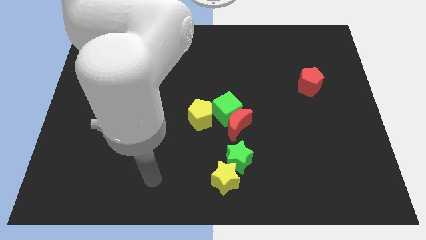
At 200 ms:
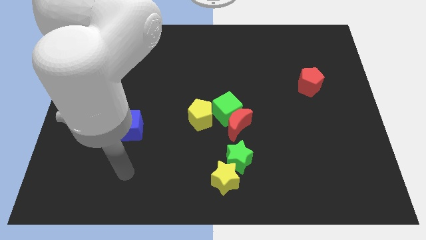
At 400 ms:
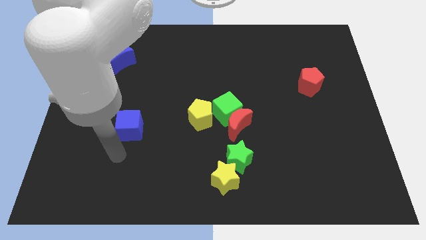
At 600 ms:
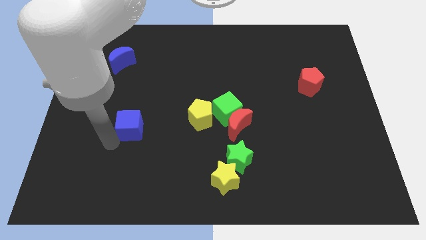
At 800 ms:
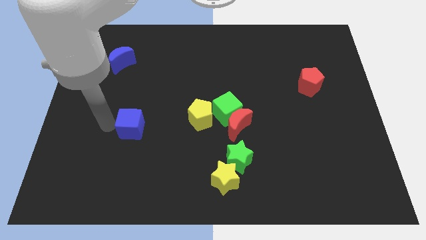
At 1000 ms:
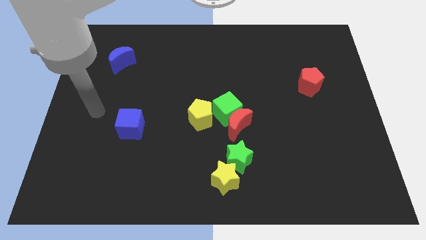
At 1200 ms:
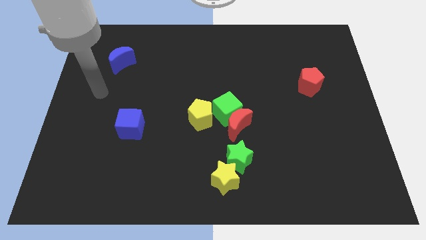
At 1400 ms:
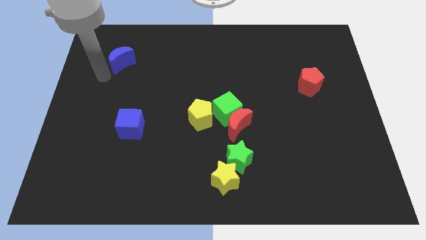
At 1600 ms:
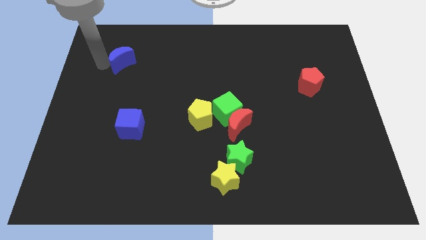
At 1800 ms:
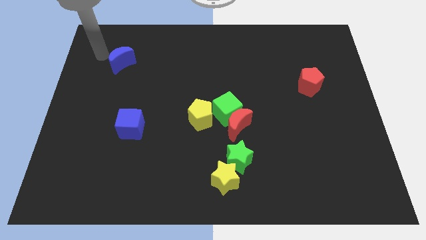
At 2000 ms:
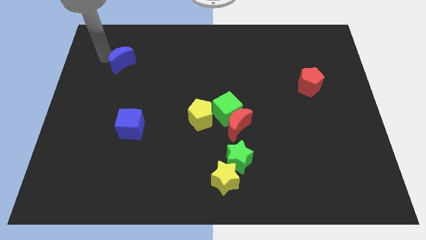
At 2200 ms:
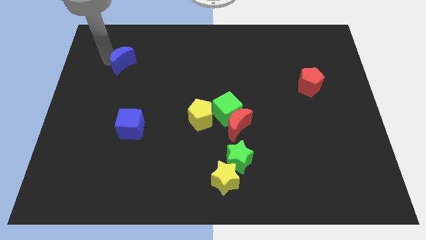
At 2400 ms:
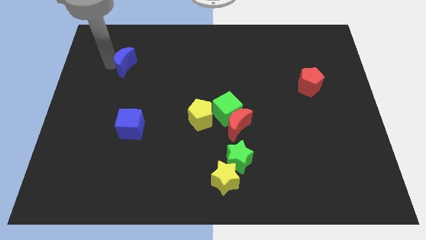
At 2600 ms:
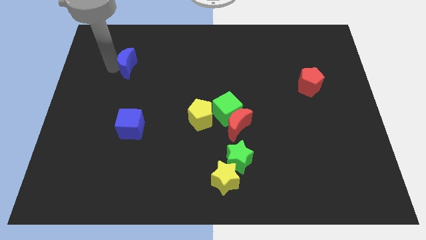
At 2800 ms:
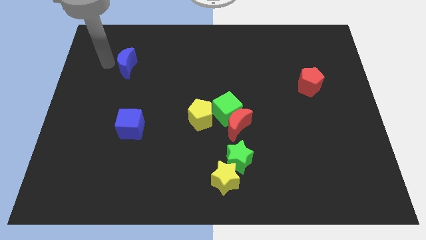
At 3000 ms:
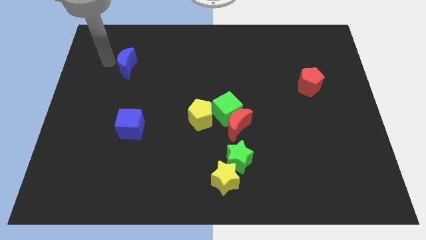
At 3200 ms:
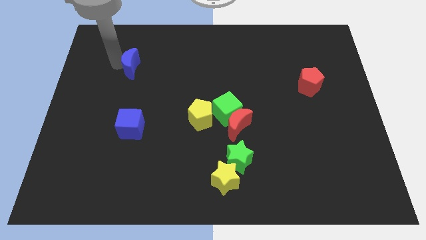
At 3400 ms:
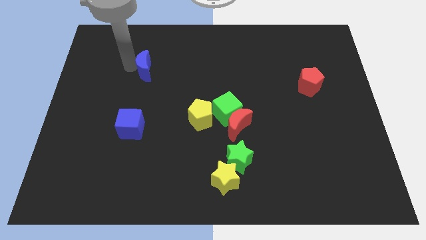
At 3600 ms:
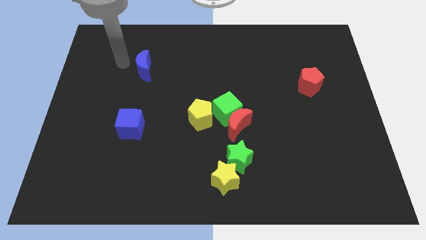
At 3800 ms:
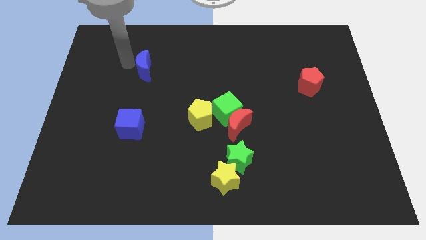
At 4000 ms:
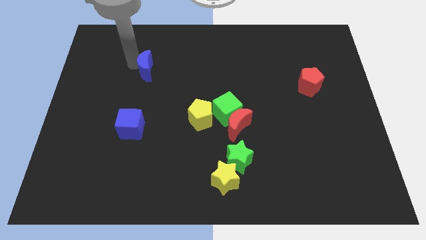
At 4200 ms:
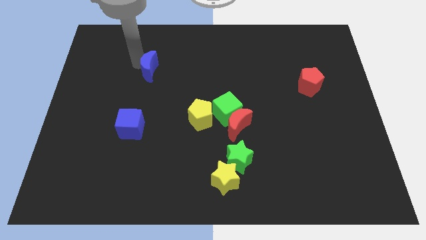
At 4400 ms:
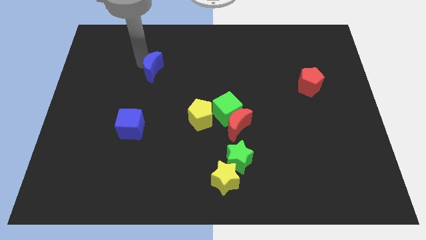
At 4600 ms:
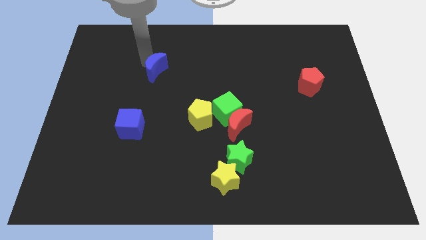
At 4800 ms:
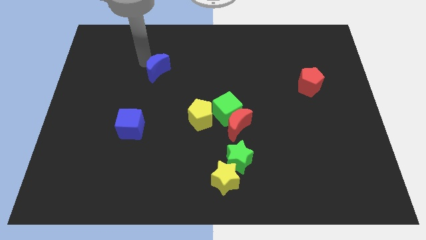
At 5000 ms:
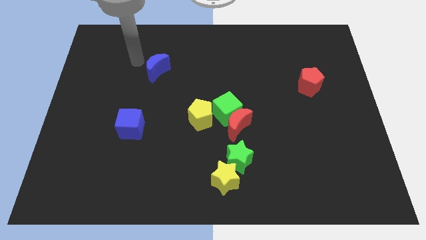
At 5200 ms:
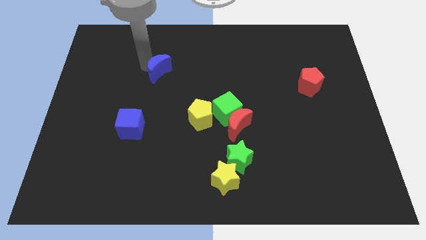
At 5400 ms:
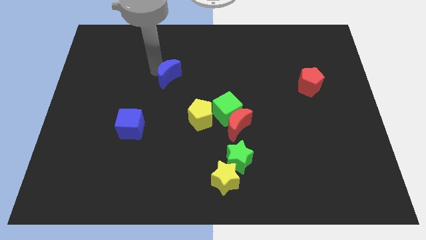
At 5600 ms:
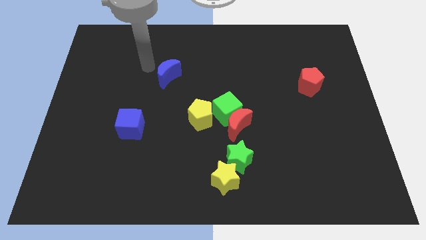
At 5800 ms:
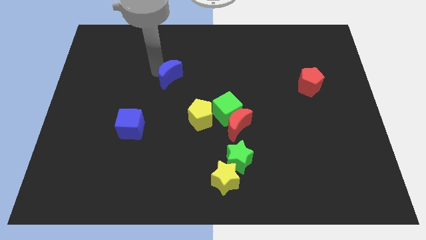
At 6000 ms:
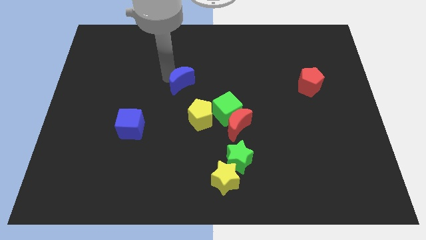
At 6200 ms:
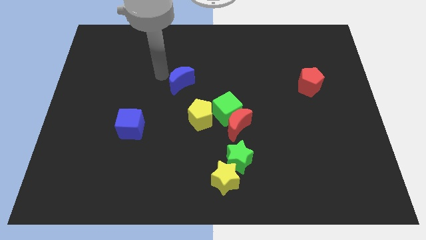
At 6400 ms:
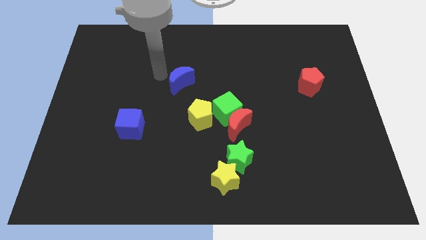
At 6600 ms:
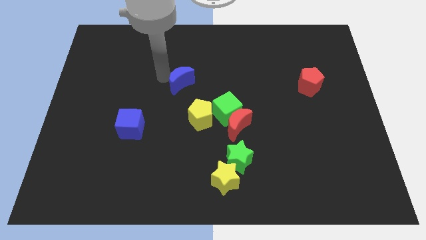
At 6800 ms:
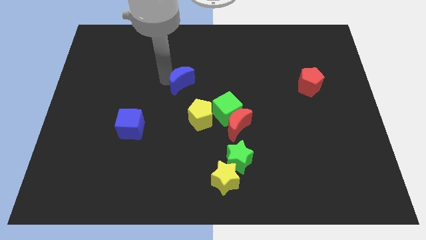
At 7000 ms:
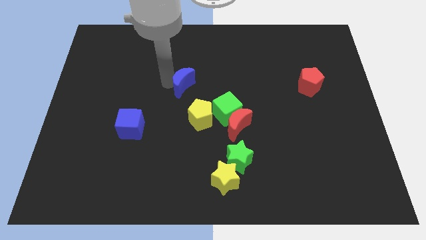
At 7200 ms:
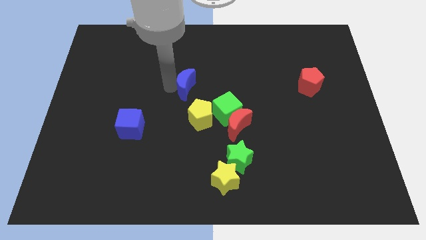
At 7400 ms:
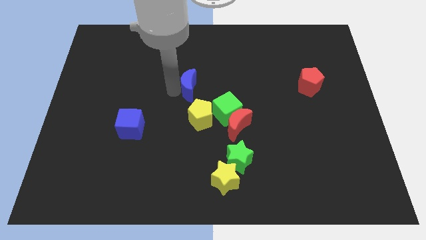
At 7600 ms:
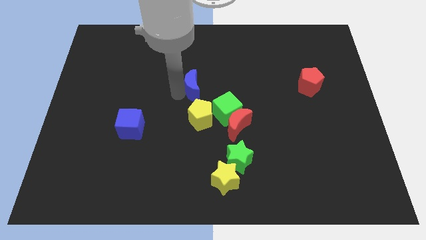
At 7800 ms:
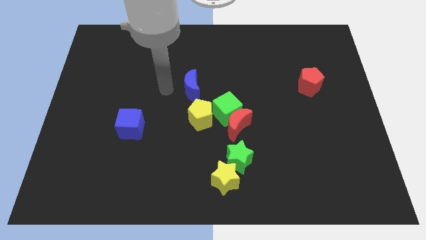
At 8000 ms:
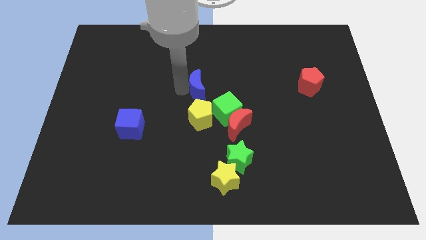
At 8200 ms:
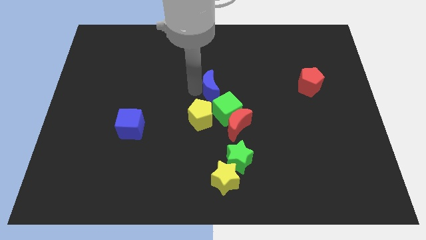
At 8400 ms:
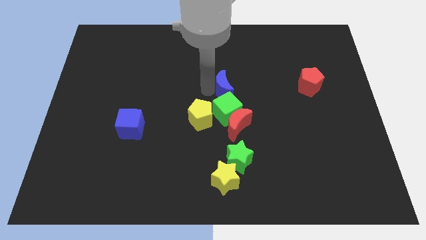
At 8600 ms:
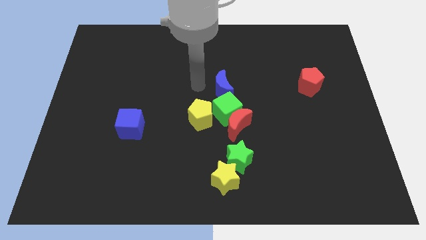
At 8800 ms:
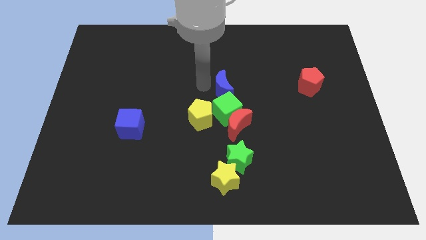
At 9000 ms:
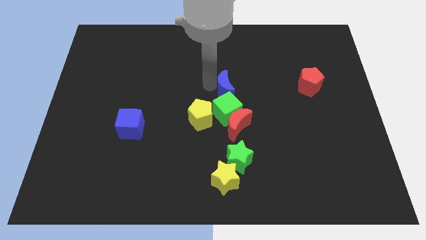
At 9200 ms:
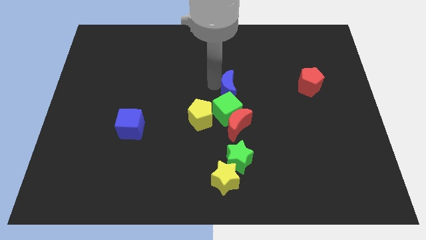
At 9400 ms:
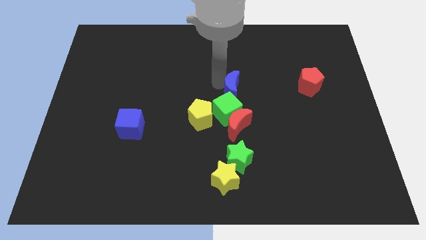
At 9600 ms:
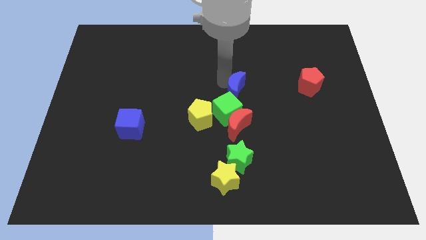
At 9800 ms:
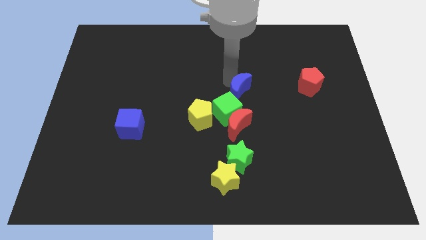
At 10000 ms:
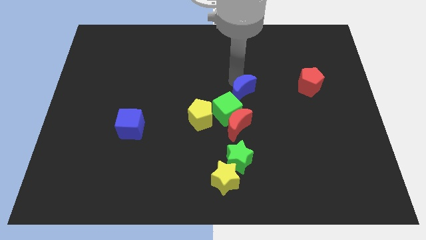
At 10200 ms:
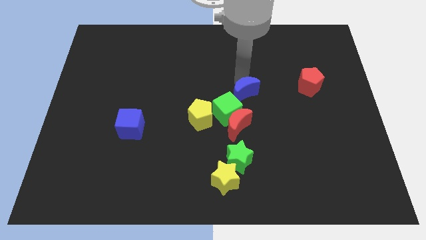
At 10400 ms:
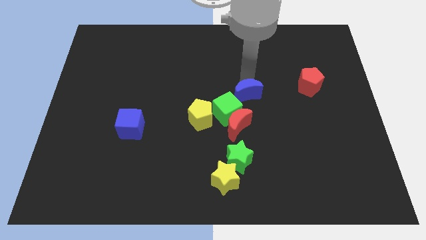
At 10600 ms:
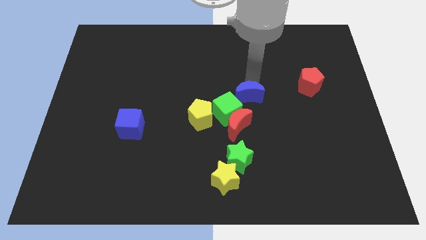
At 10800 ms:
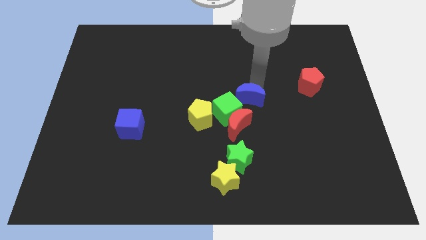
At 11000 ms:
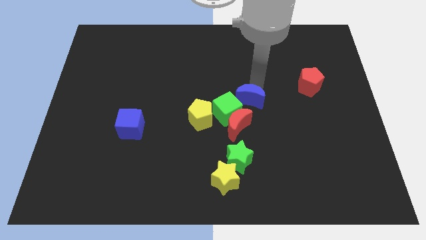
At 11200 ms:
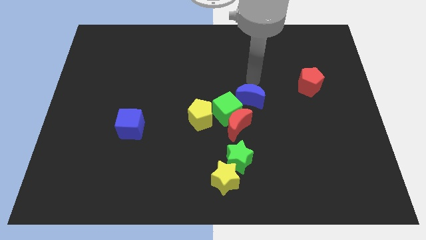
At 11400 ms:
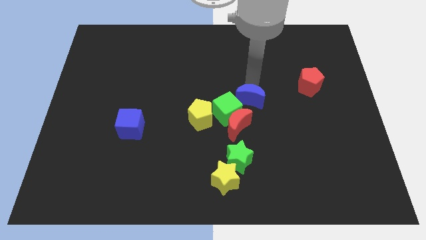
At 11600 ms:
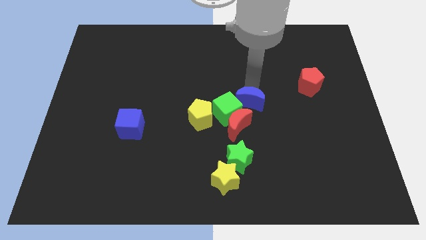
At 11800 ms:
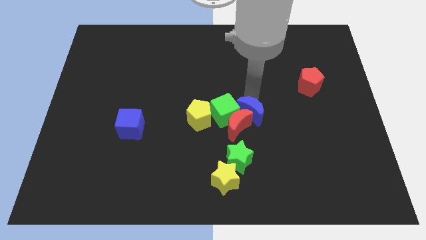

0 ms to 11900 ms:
move the blue moon diagonally down and to the right of the green cube

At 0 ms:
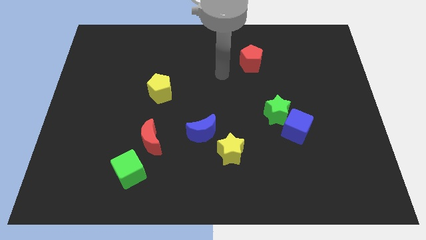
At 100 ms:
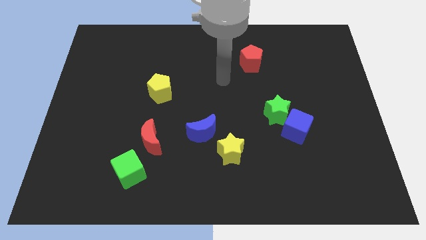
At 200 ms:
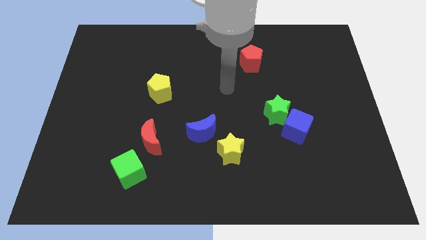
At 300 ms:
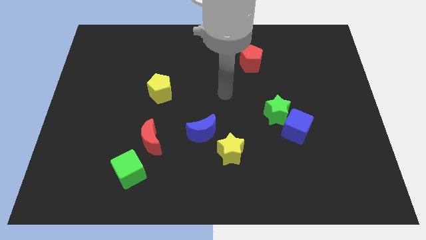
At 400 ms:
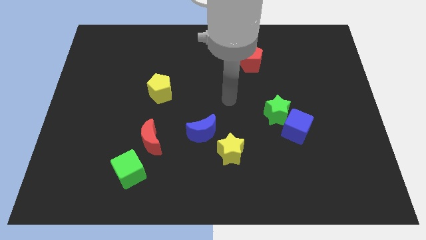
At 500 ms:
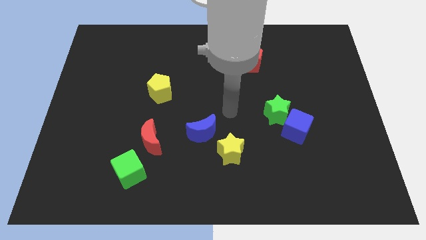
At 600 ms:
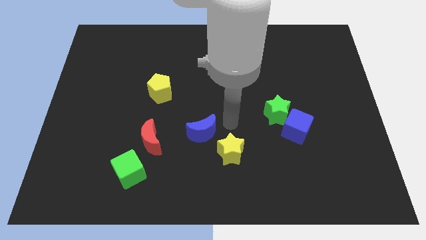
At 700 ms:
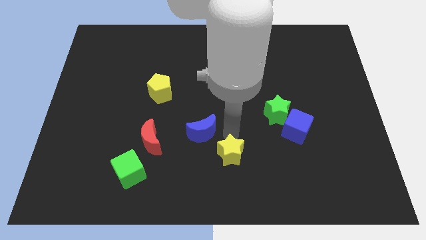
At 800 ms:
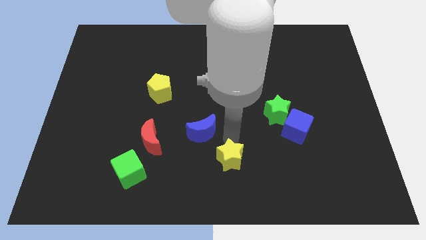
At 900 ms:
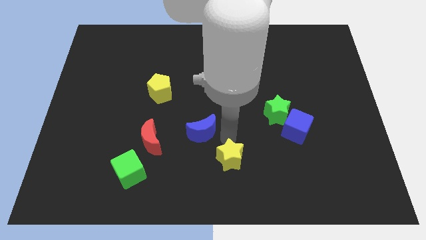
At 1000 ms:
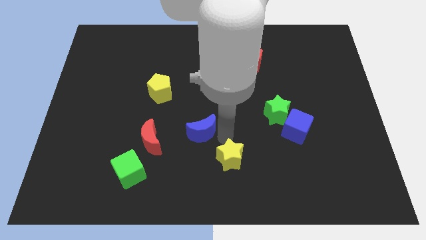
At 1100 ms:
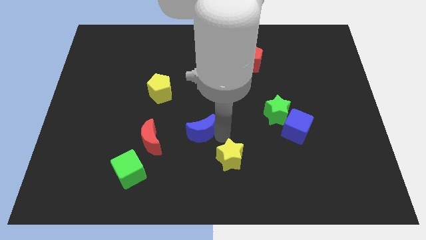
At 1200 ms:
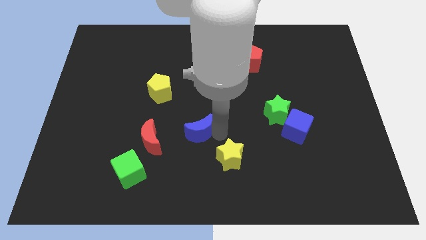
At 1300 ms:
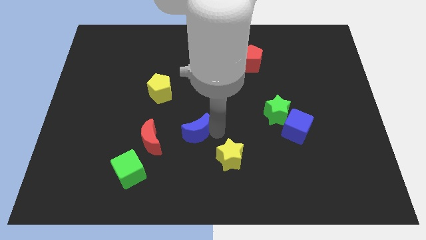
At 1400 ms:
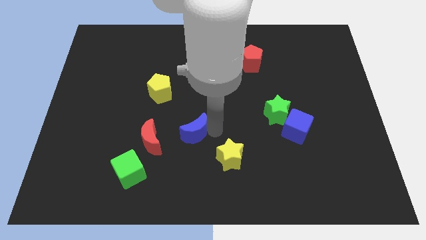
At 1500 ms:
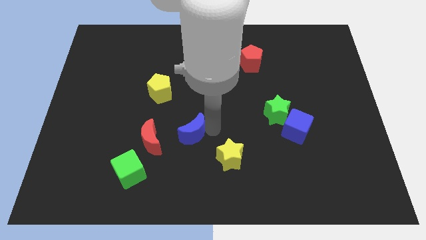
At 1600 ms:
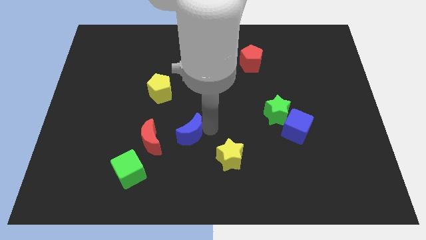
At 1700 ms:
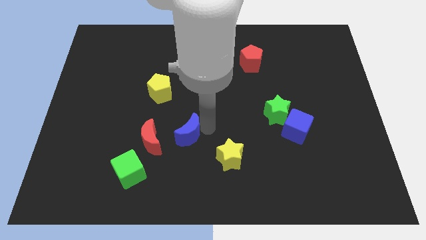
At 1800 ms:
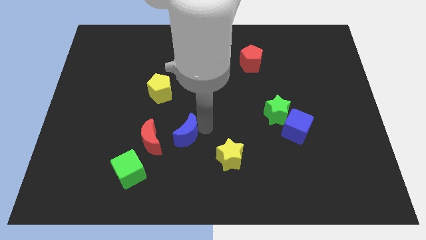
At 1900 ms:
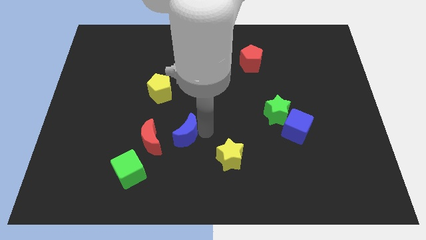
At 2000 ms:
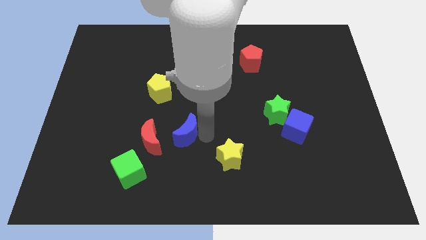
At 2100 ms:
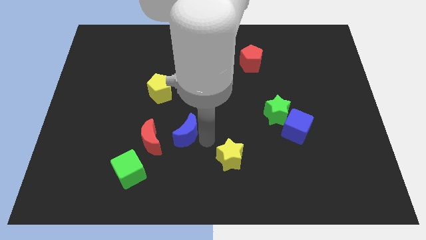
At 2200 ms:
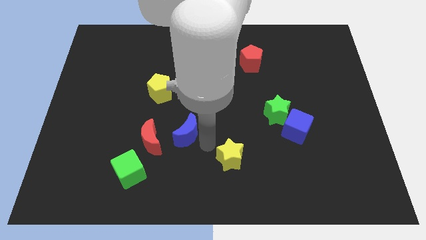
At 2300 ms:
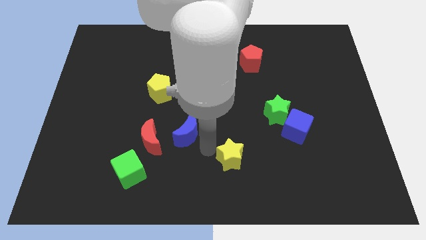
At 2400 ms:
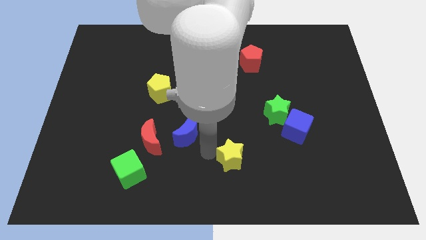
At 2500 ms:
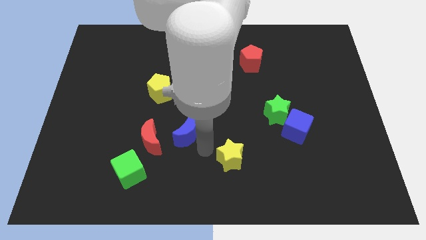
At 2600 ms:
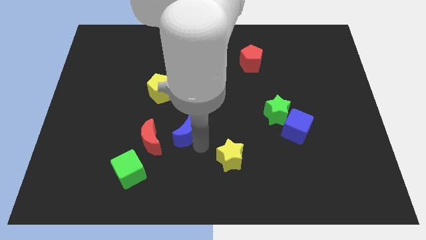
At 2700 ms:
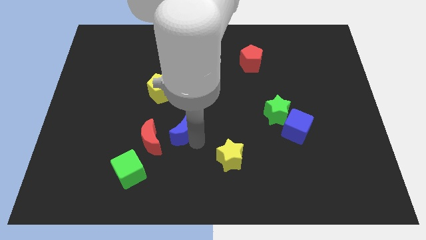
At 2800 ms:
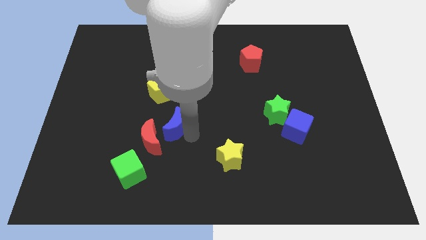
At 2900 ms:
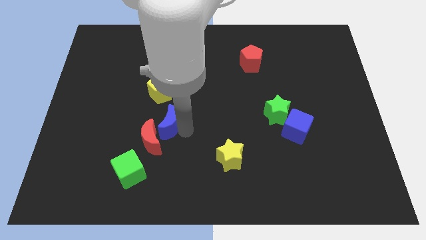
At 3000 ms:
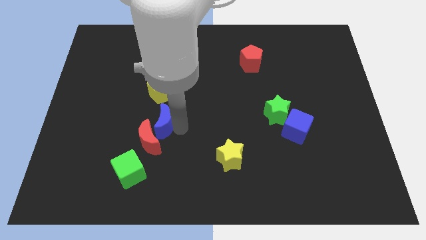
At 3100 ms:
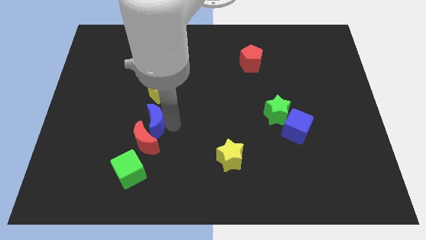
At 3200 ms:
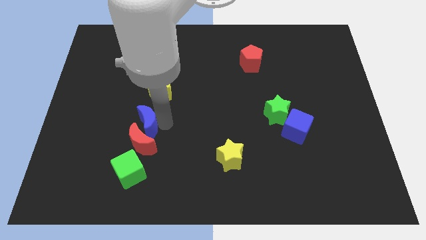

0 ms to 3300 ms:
put the blue moon to the top left of the red moon
